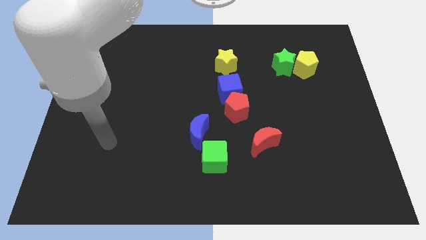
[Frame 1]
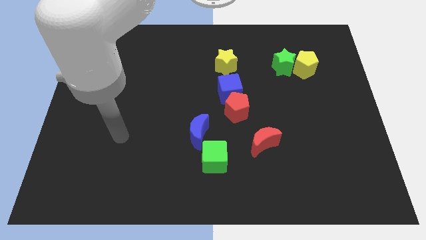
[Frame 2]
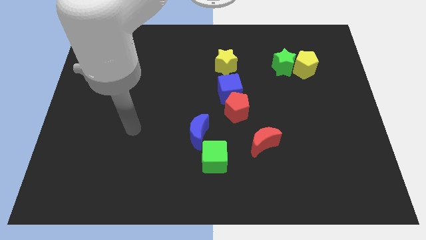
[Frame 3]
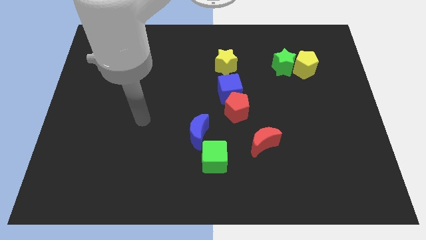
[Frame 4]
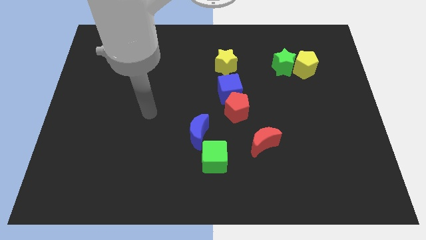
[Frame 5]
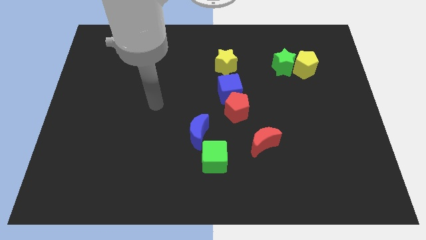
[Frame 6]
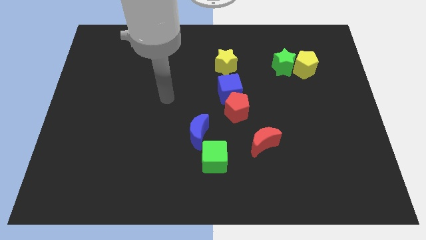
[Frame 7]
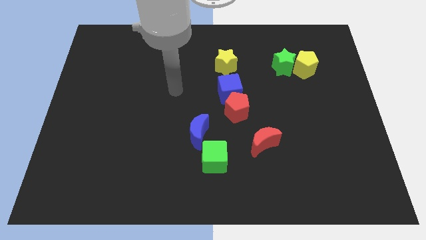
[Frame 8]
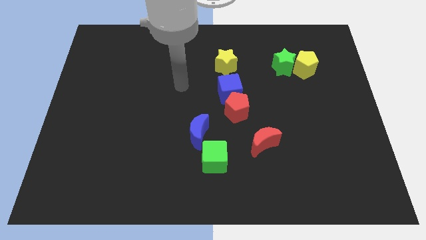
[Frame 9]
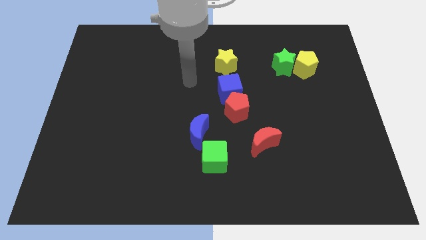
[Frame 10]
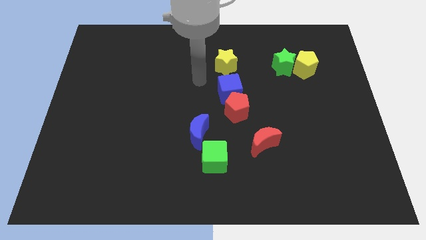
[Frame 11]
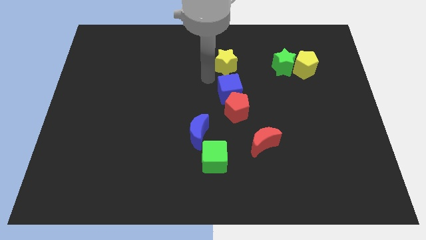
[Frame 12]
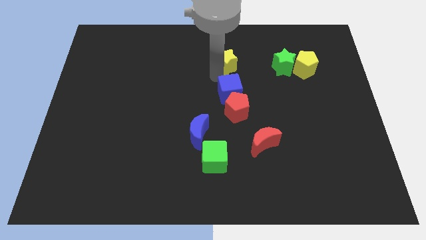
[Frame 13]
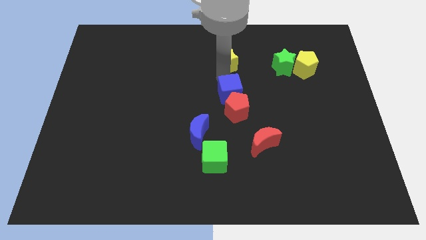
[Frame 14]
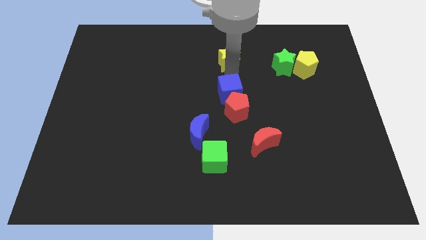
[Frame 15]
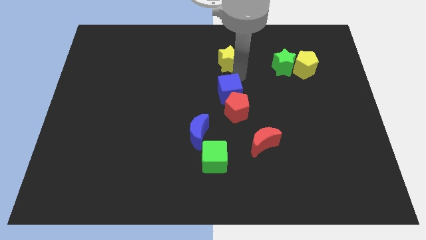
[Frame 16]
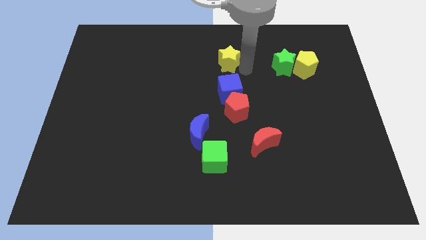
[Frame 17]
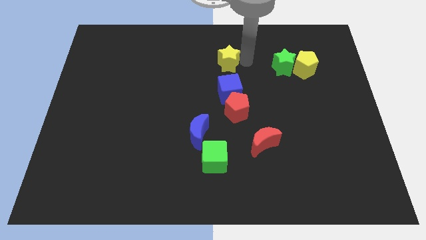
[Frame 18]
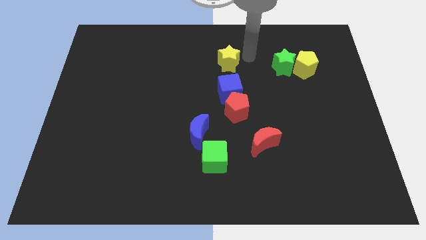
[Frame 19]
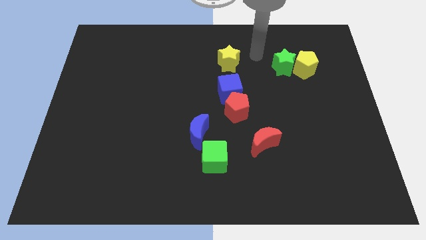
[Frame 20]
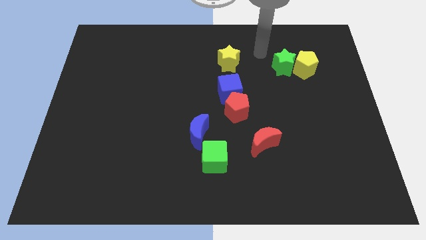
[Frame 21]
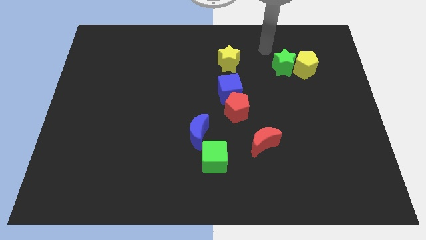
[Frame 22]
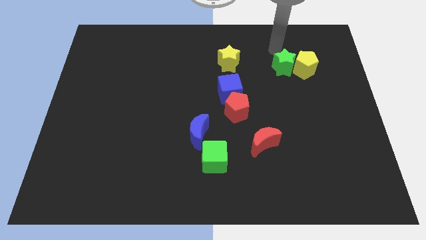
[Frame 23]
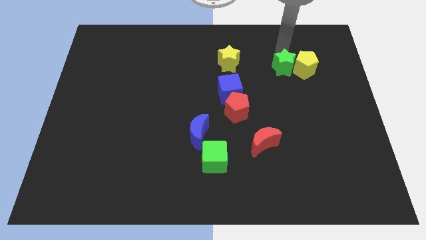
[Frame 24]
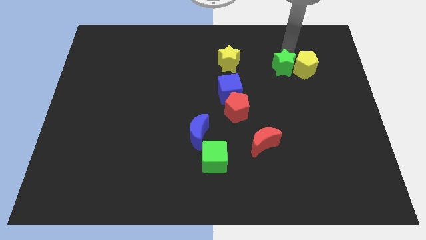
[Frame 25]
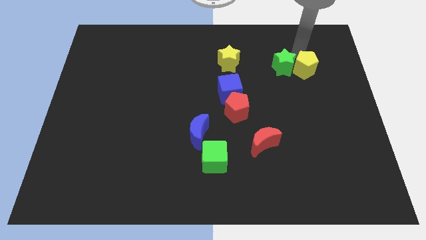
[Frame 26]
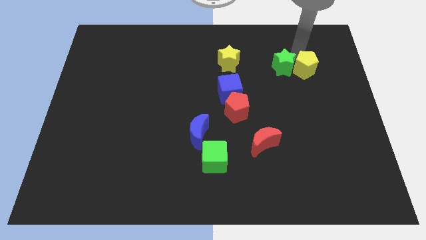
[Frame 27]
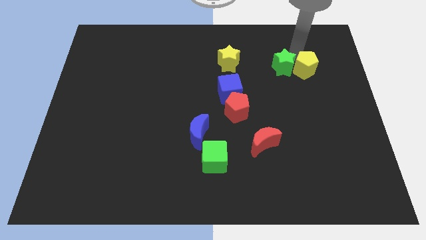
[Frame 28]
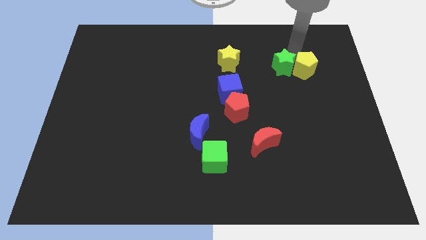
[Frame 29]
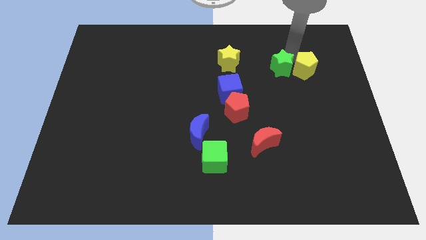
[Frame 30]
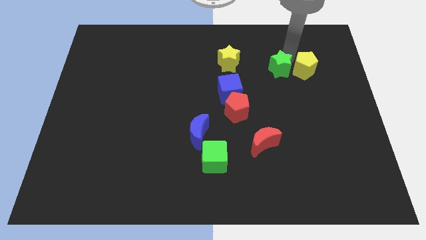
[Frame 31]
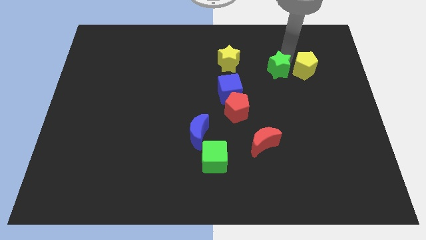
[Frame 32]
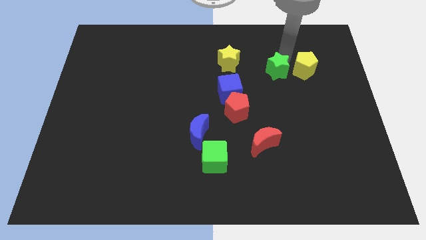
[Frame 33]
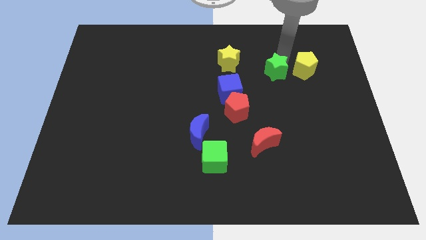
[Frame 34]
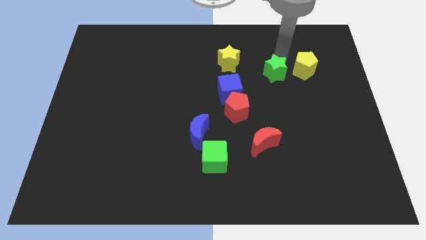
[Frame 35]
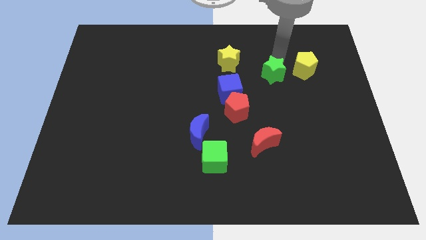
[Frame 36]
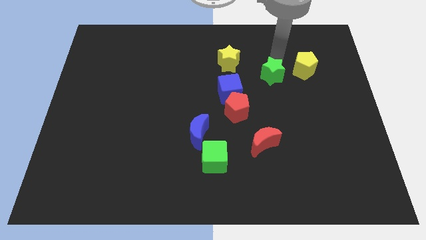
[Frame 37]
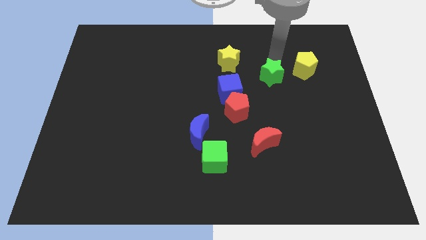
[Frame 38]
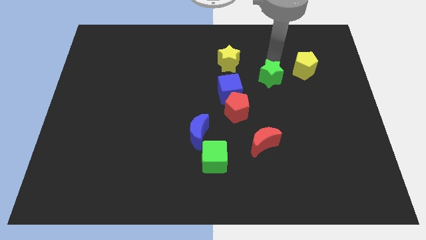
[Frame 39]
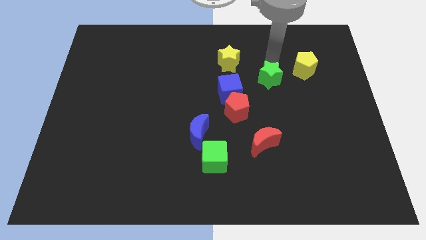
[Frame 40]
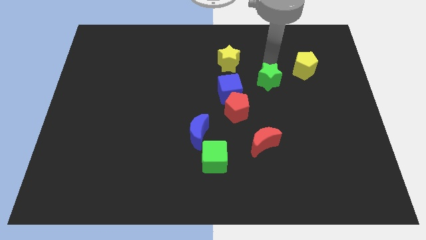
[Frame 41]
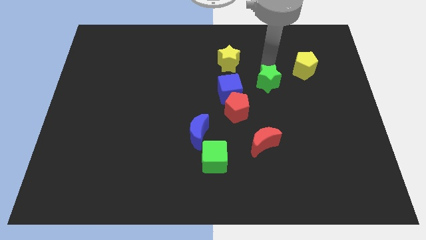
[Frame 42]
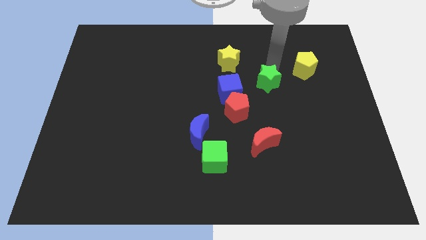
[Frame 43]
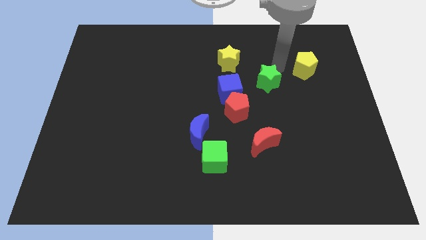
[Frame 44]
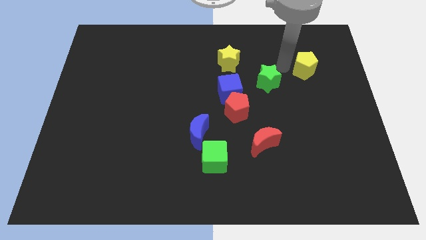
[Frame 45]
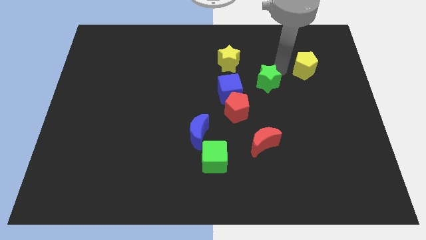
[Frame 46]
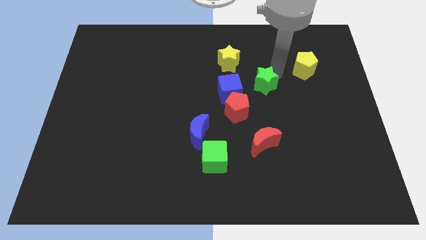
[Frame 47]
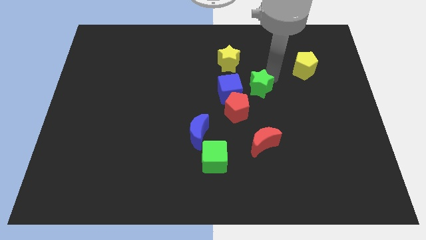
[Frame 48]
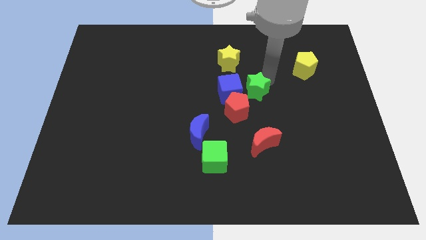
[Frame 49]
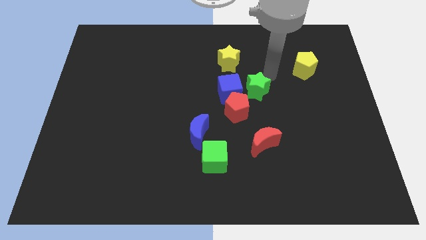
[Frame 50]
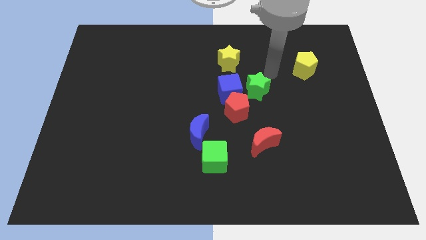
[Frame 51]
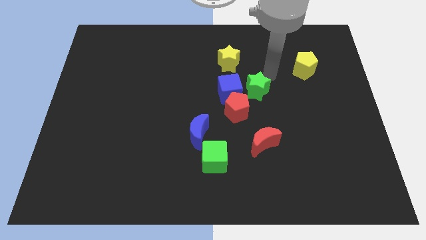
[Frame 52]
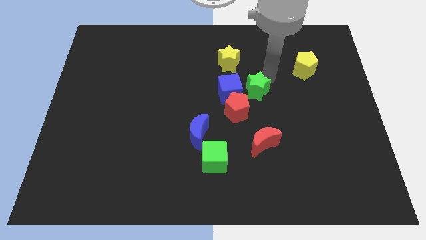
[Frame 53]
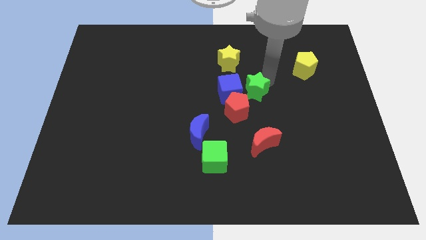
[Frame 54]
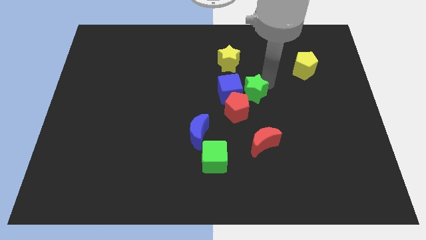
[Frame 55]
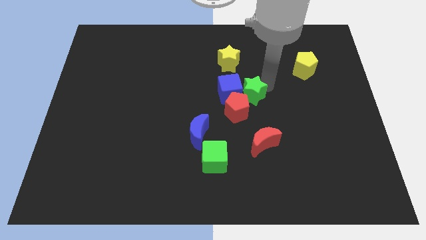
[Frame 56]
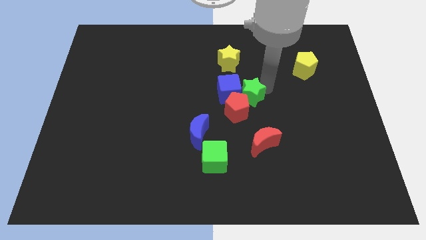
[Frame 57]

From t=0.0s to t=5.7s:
slide the green star towards the red pentagon

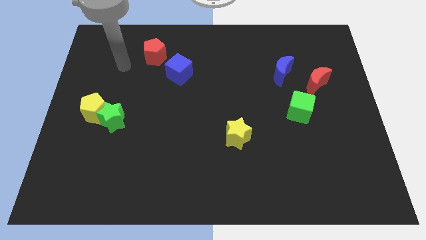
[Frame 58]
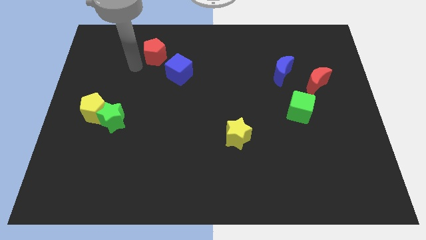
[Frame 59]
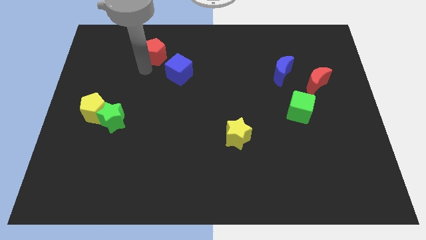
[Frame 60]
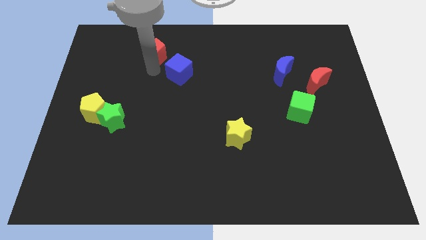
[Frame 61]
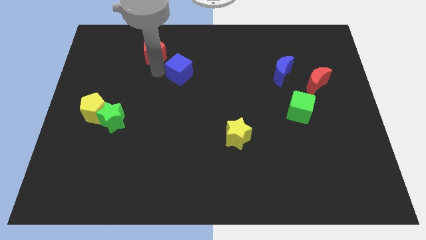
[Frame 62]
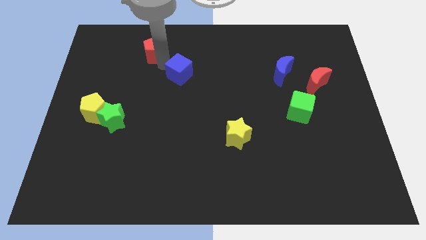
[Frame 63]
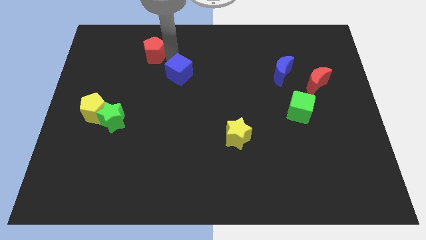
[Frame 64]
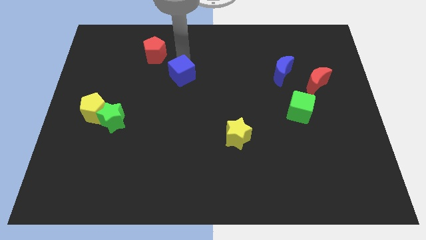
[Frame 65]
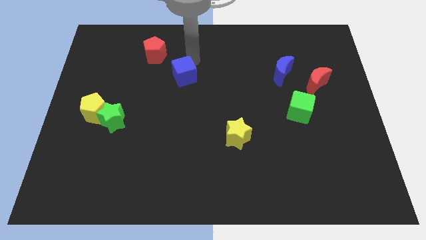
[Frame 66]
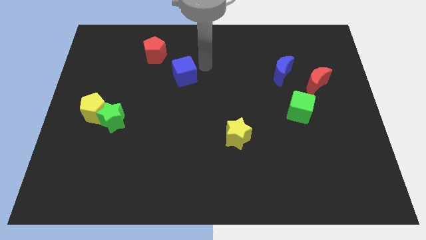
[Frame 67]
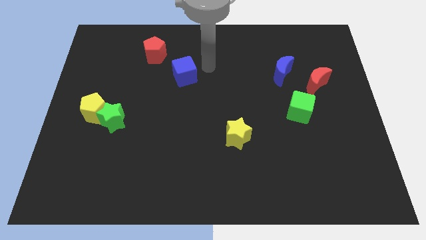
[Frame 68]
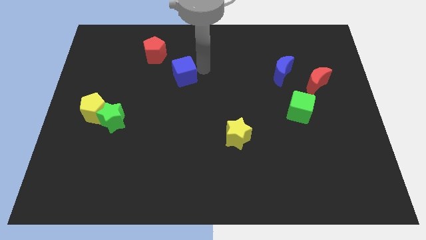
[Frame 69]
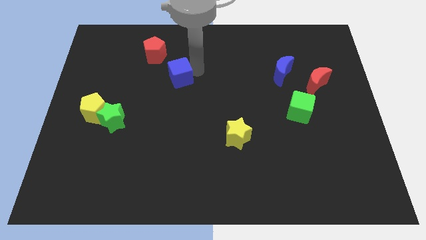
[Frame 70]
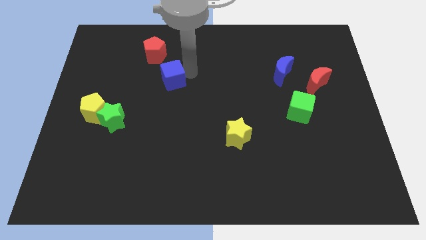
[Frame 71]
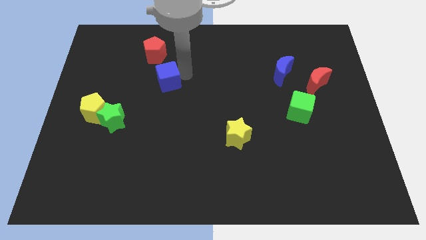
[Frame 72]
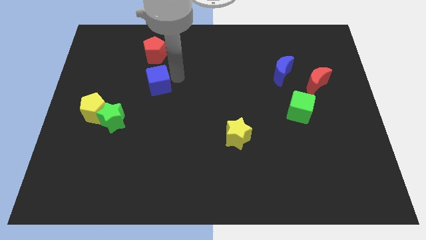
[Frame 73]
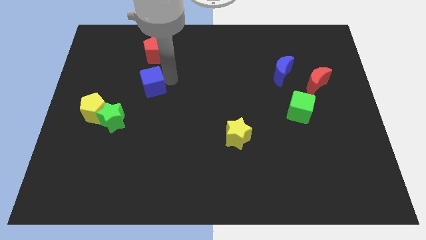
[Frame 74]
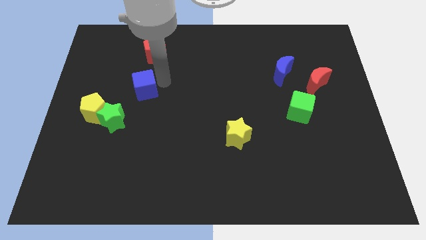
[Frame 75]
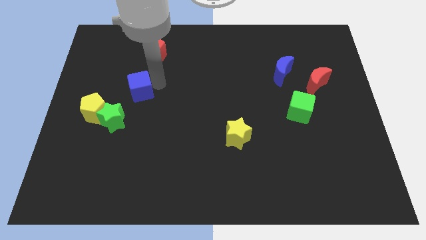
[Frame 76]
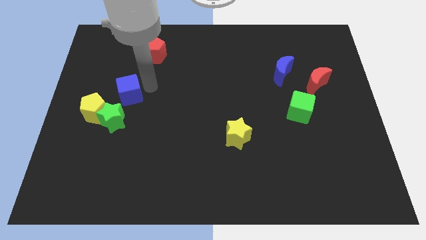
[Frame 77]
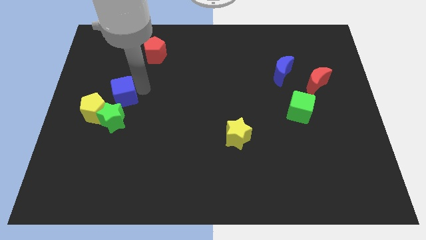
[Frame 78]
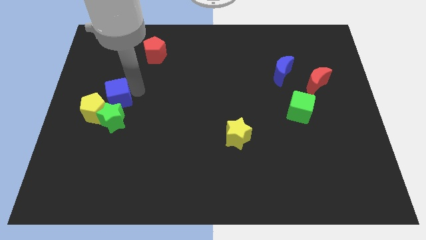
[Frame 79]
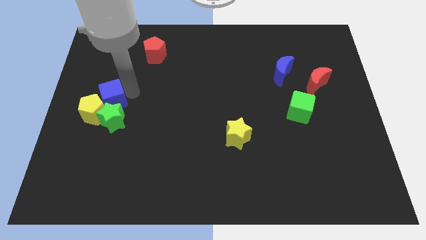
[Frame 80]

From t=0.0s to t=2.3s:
move the blue cube close to the yellow pentagon
